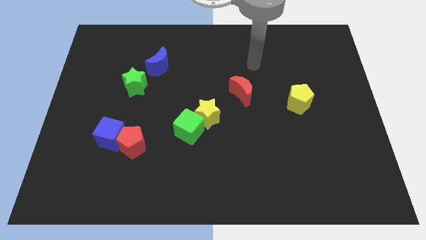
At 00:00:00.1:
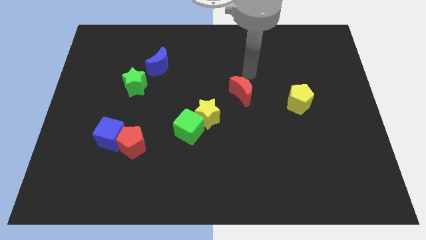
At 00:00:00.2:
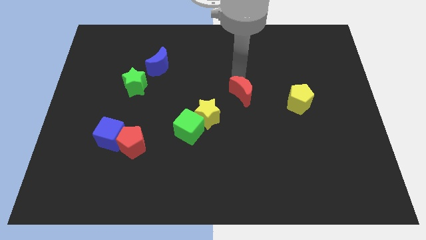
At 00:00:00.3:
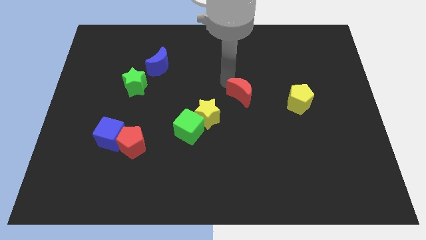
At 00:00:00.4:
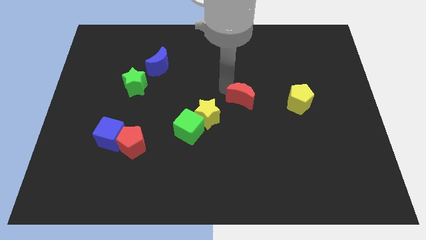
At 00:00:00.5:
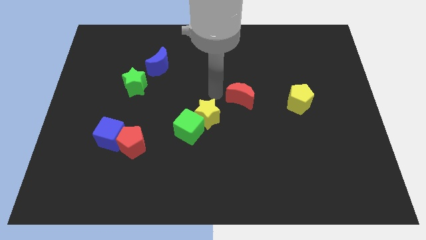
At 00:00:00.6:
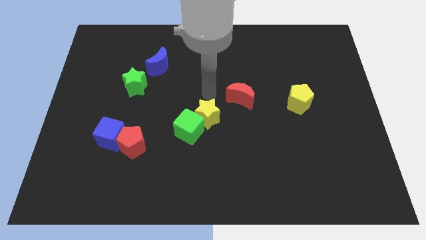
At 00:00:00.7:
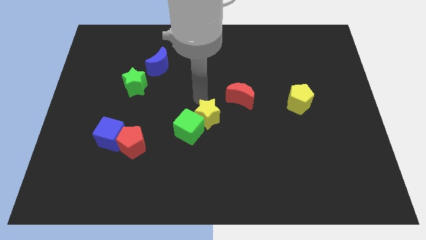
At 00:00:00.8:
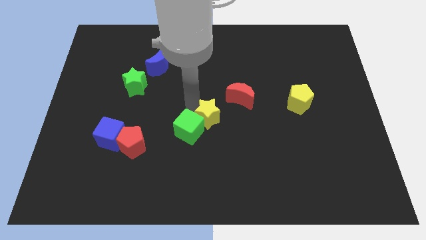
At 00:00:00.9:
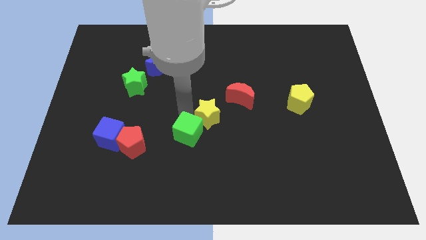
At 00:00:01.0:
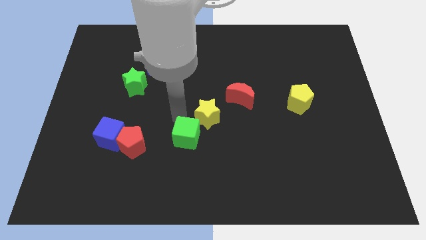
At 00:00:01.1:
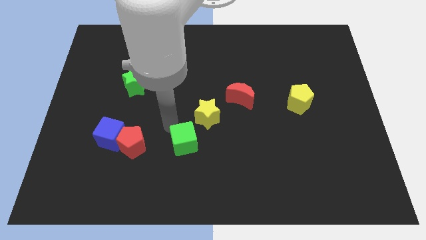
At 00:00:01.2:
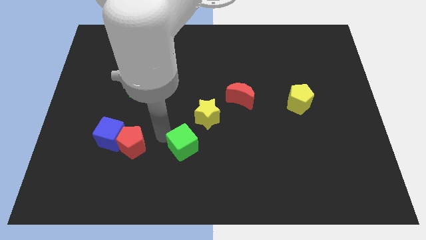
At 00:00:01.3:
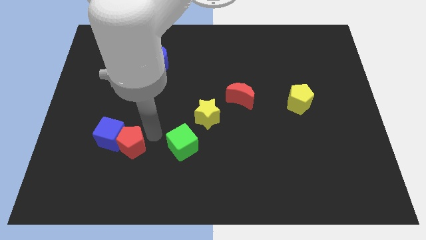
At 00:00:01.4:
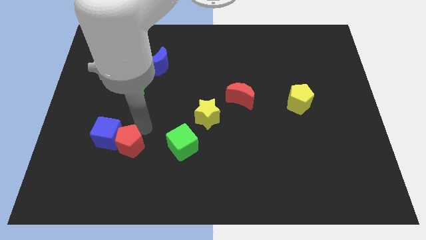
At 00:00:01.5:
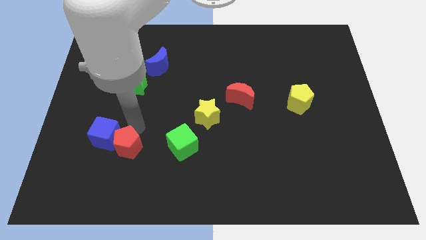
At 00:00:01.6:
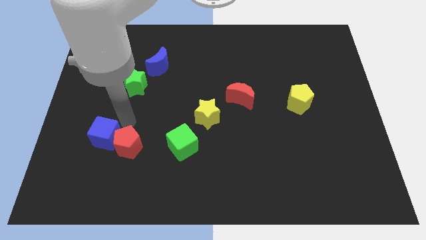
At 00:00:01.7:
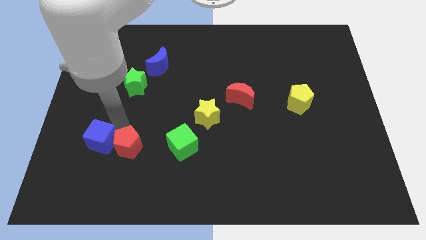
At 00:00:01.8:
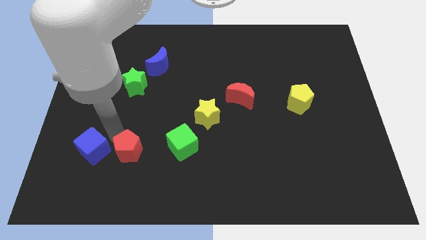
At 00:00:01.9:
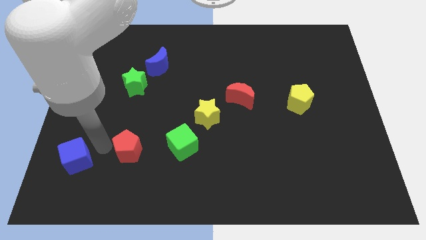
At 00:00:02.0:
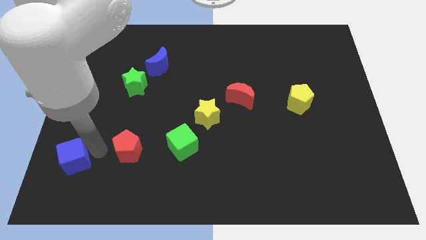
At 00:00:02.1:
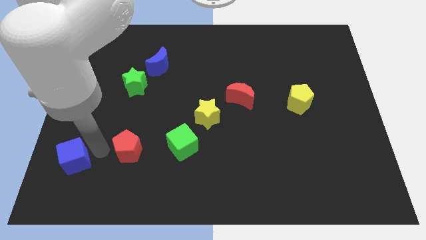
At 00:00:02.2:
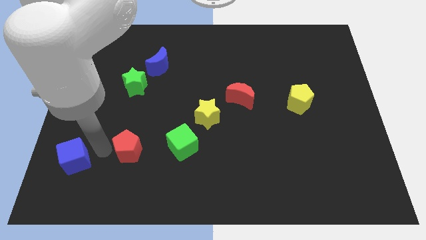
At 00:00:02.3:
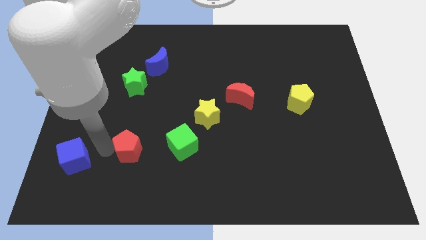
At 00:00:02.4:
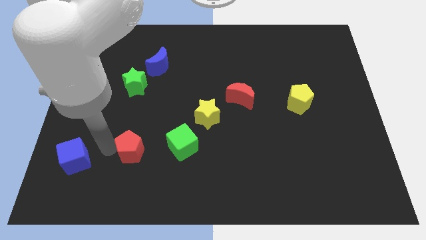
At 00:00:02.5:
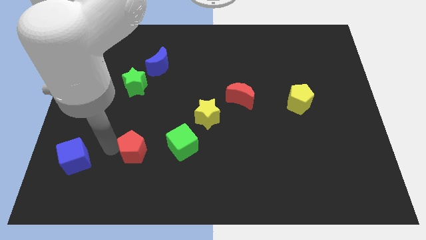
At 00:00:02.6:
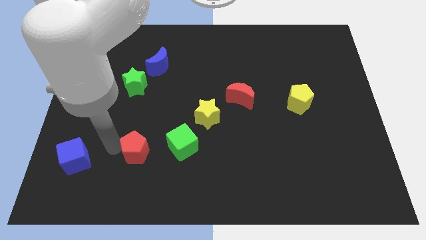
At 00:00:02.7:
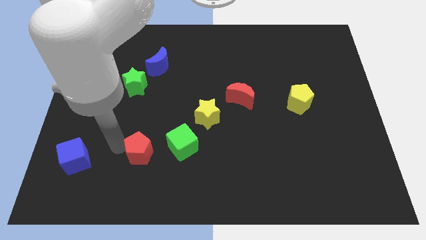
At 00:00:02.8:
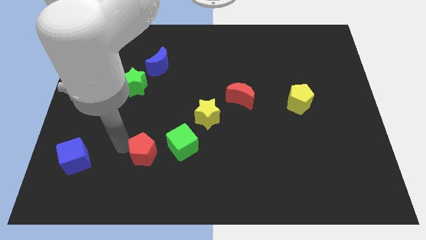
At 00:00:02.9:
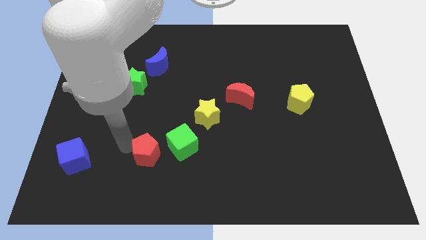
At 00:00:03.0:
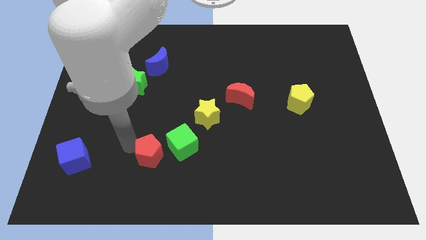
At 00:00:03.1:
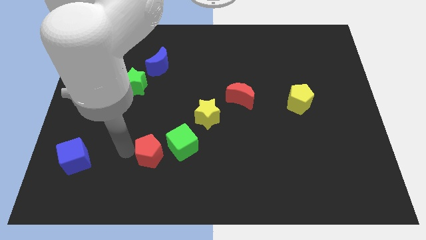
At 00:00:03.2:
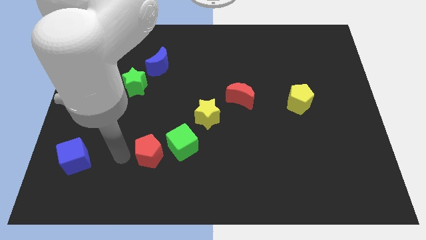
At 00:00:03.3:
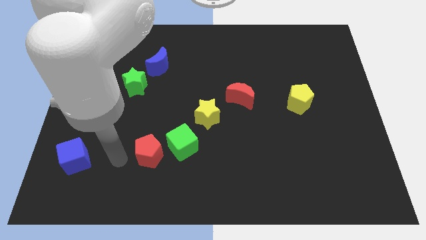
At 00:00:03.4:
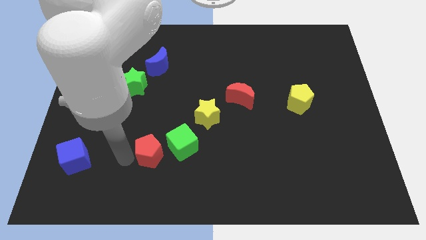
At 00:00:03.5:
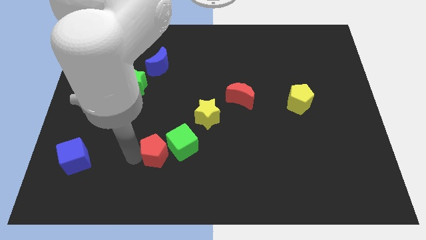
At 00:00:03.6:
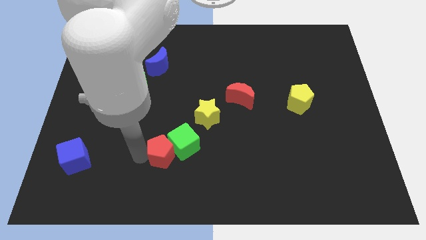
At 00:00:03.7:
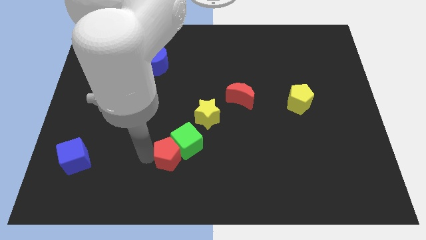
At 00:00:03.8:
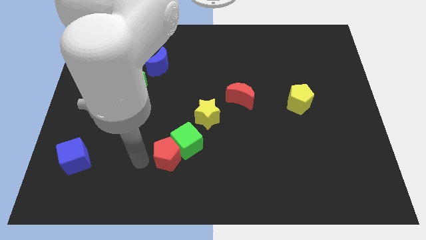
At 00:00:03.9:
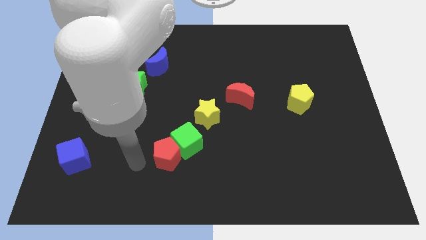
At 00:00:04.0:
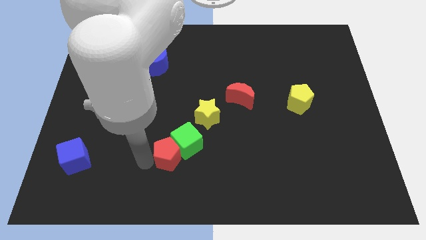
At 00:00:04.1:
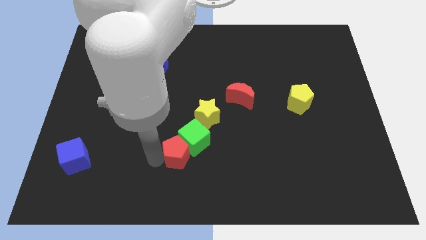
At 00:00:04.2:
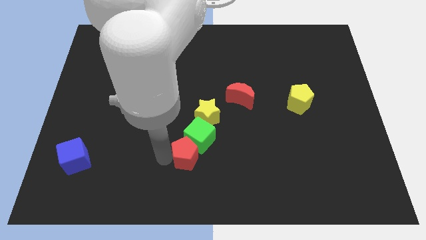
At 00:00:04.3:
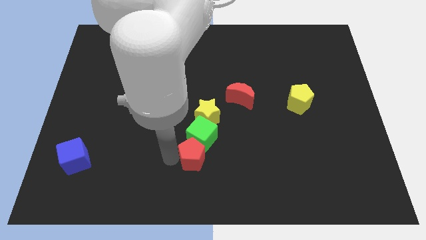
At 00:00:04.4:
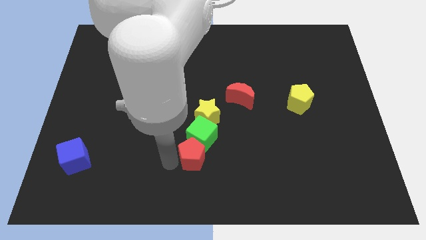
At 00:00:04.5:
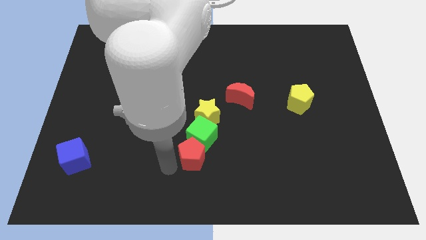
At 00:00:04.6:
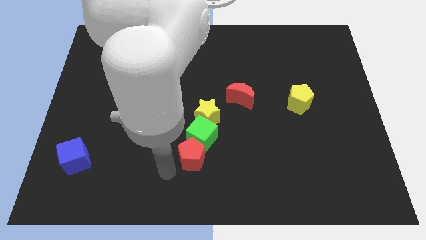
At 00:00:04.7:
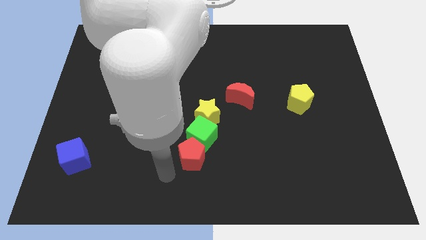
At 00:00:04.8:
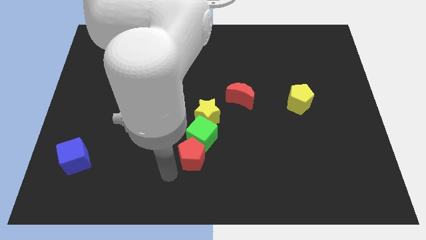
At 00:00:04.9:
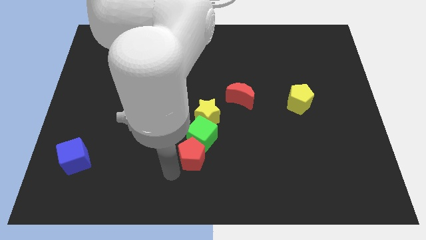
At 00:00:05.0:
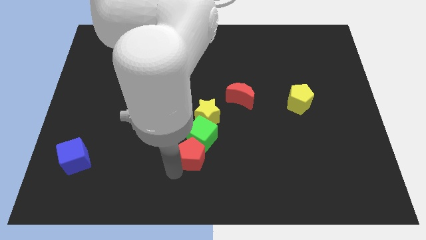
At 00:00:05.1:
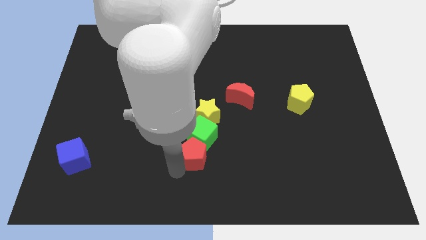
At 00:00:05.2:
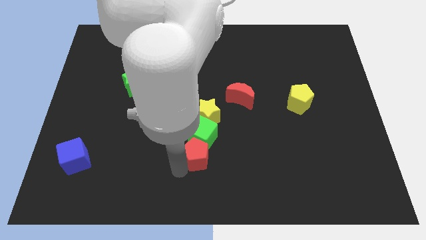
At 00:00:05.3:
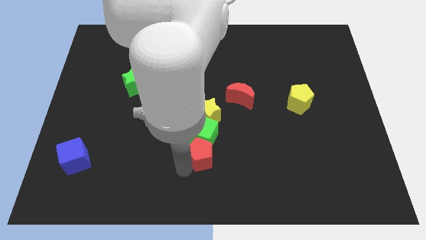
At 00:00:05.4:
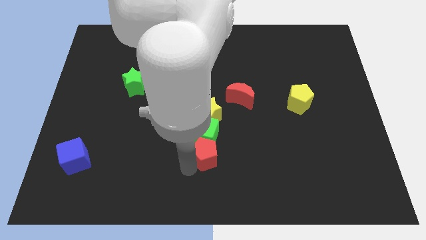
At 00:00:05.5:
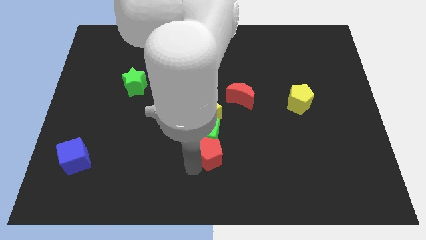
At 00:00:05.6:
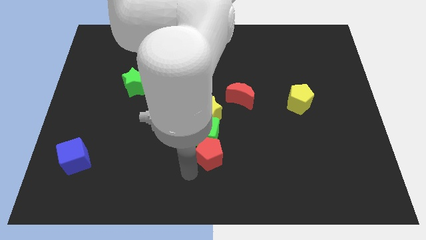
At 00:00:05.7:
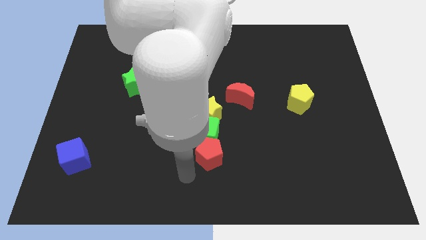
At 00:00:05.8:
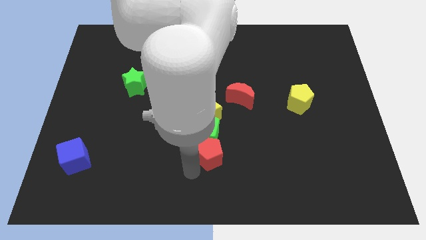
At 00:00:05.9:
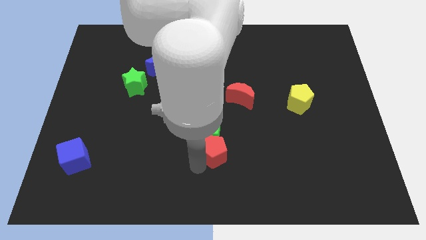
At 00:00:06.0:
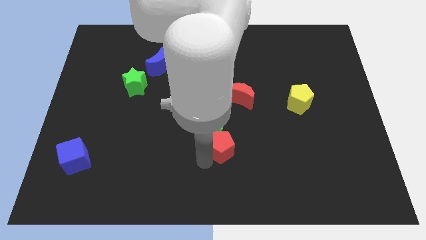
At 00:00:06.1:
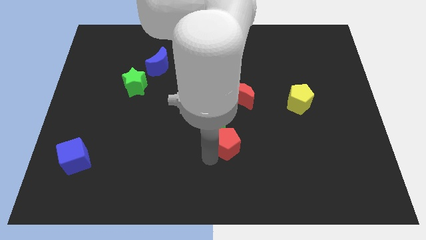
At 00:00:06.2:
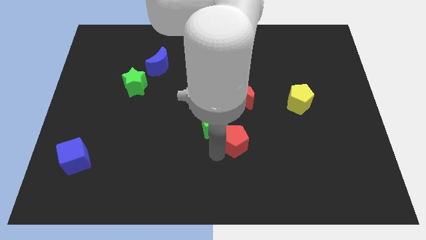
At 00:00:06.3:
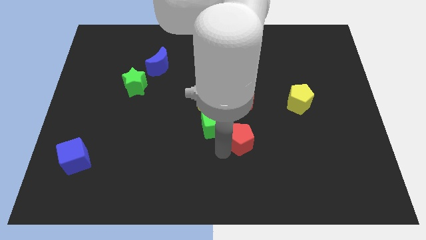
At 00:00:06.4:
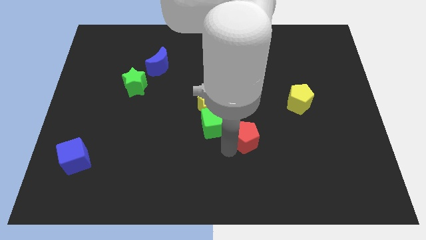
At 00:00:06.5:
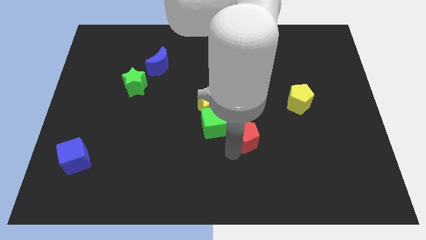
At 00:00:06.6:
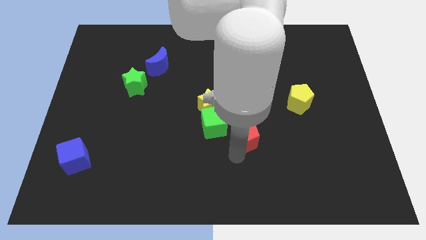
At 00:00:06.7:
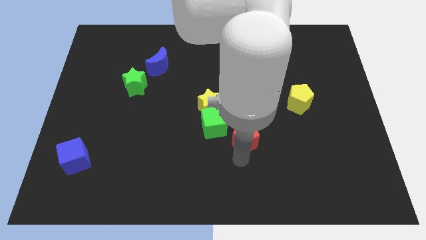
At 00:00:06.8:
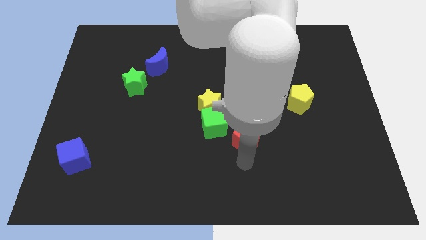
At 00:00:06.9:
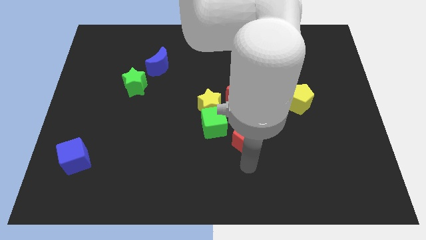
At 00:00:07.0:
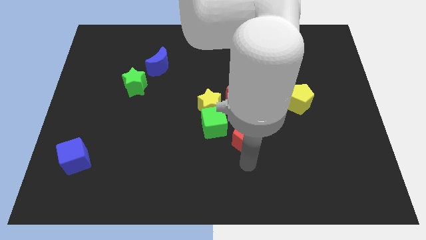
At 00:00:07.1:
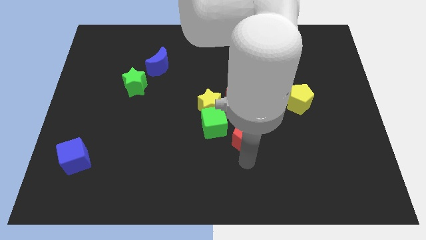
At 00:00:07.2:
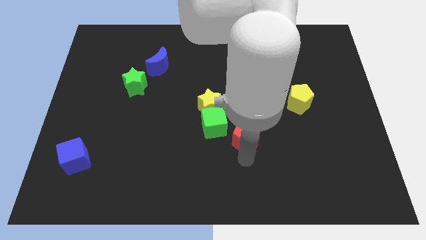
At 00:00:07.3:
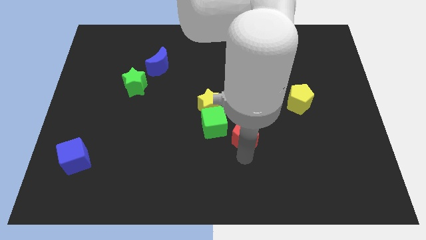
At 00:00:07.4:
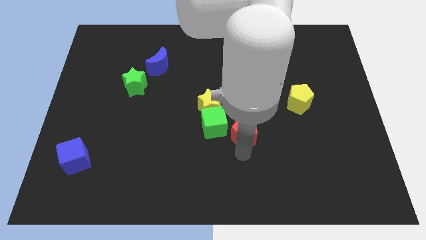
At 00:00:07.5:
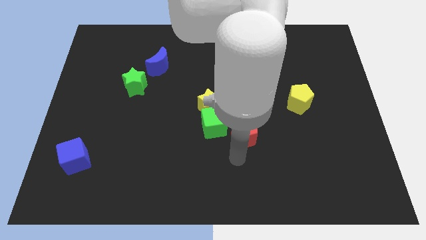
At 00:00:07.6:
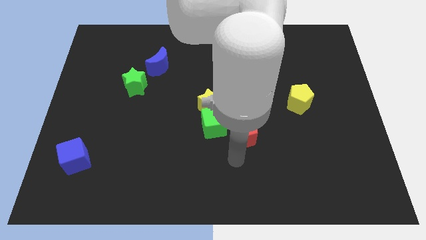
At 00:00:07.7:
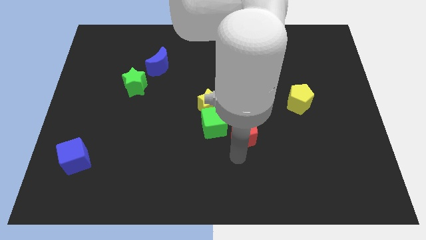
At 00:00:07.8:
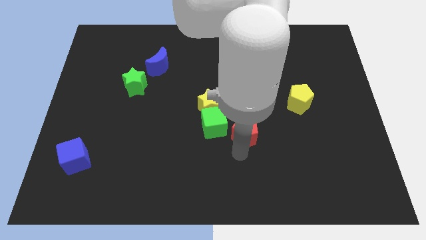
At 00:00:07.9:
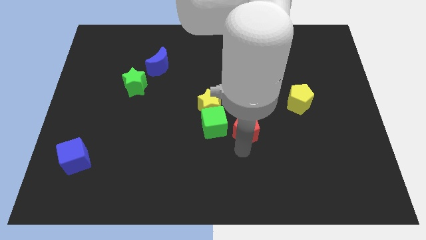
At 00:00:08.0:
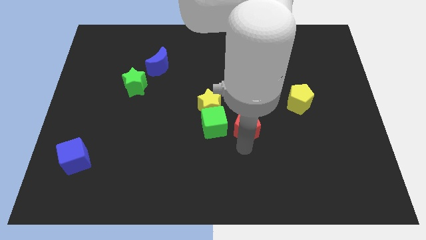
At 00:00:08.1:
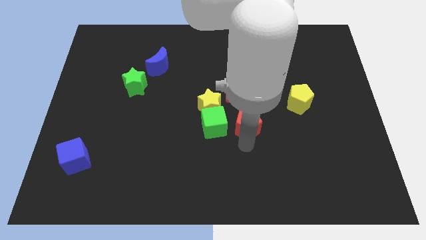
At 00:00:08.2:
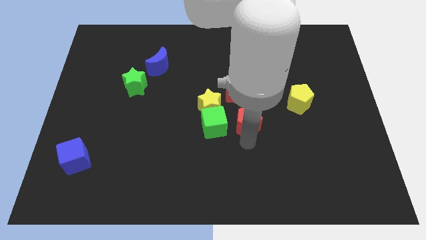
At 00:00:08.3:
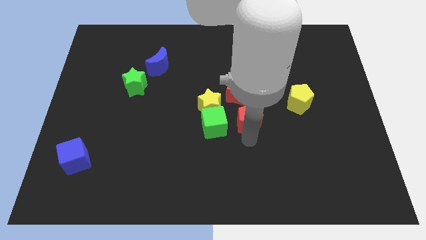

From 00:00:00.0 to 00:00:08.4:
push the red pentagon to the right of the yellow star
